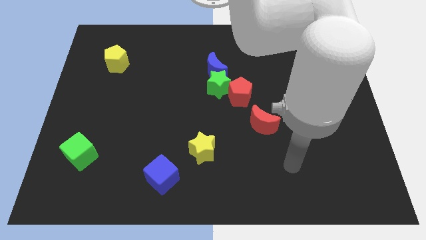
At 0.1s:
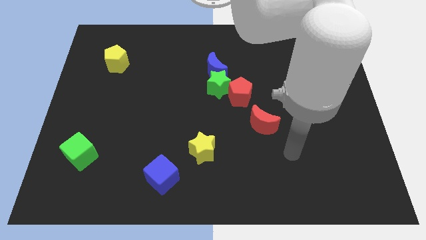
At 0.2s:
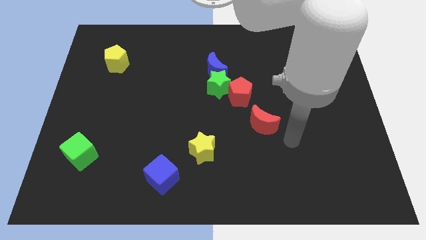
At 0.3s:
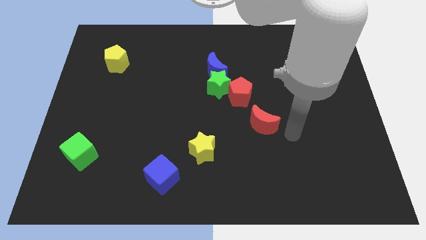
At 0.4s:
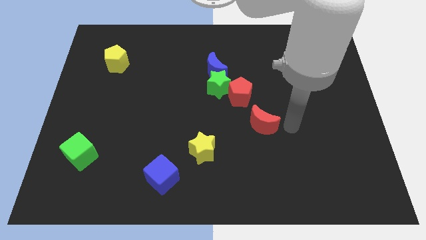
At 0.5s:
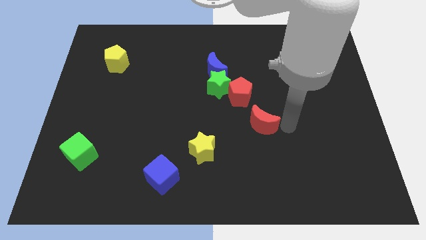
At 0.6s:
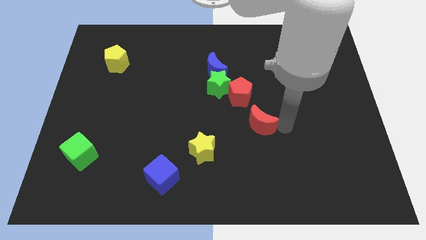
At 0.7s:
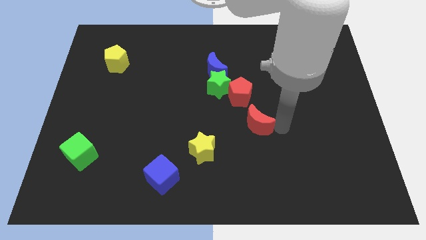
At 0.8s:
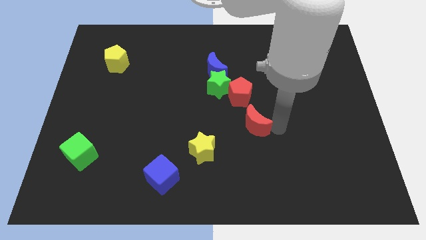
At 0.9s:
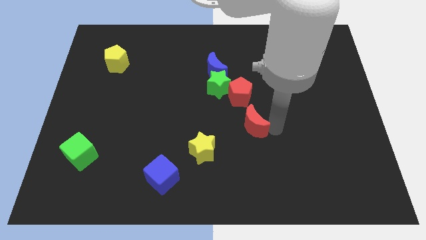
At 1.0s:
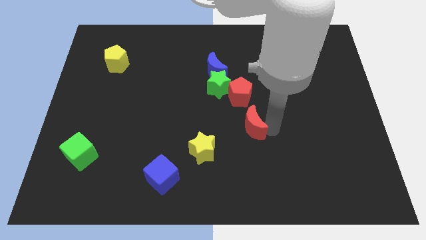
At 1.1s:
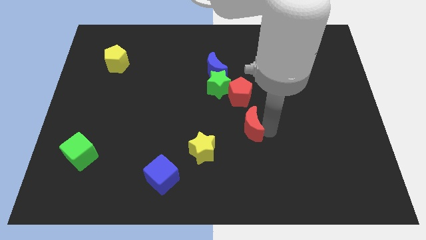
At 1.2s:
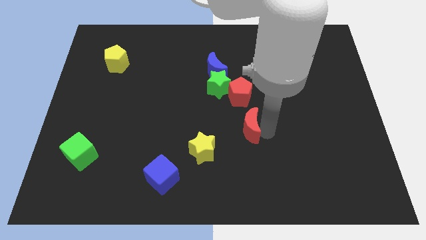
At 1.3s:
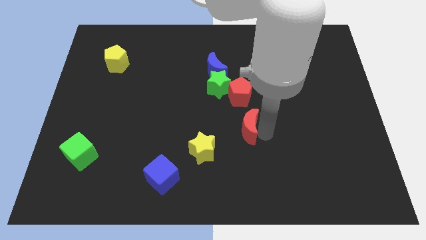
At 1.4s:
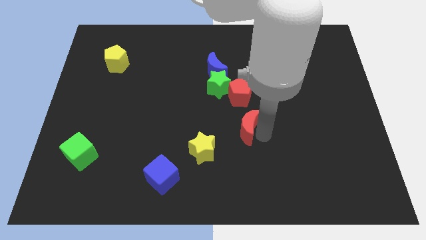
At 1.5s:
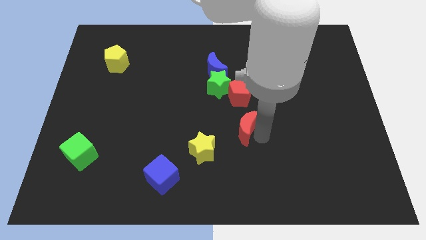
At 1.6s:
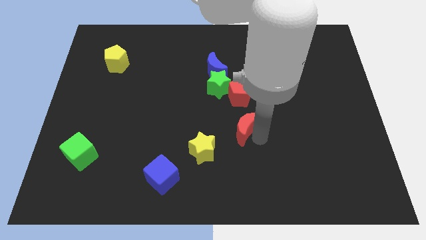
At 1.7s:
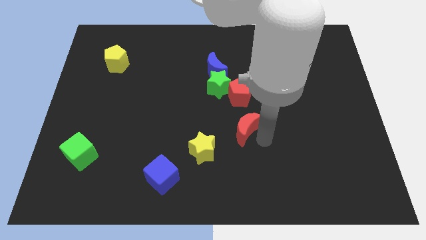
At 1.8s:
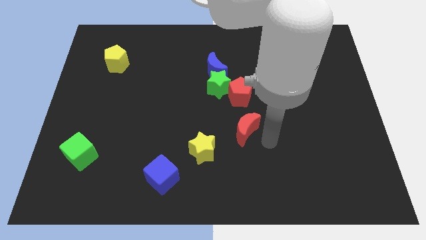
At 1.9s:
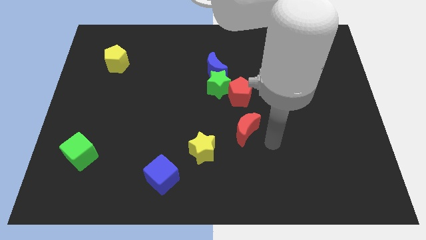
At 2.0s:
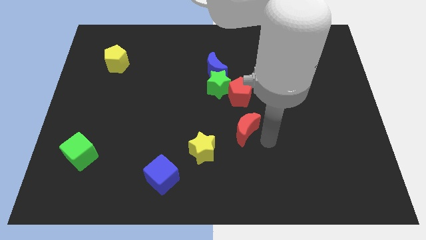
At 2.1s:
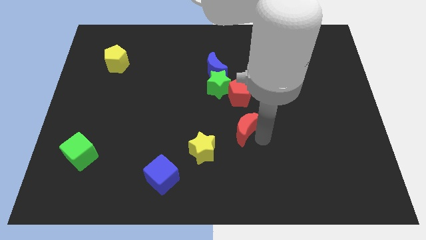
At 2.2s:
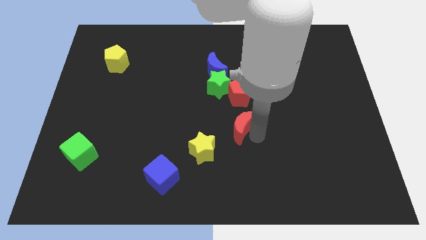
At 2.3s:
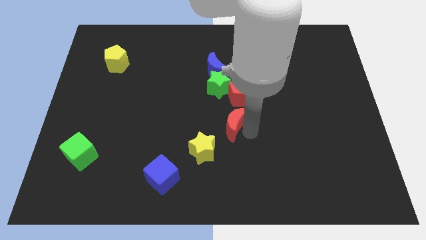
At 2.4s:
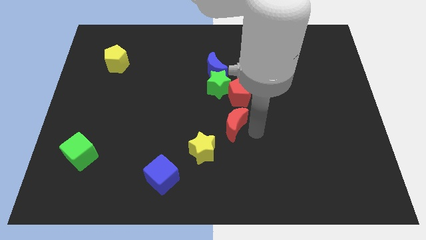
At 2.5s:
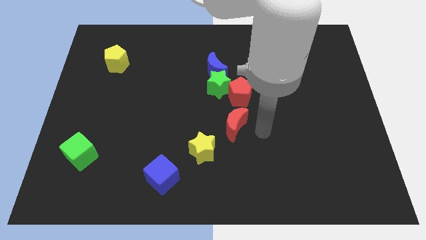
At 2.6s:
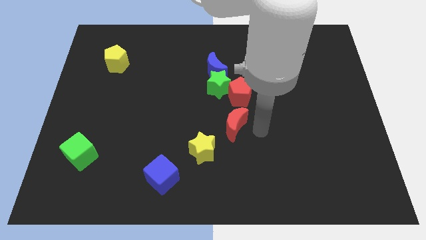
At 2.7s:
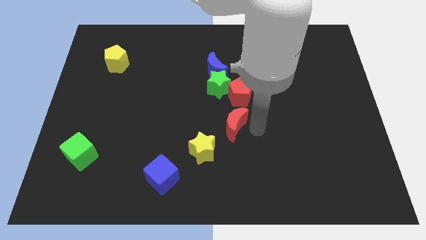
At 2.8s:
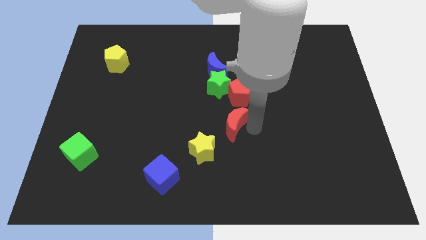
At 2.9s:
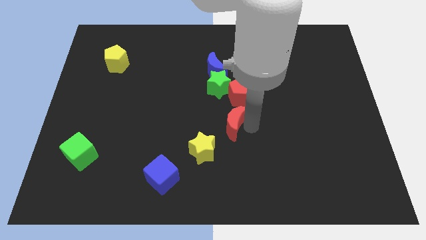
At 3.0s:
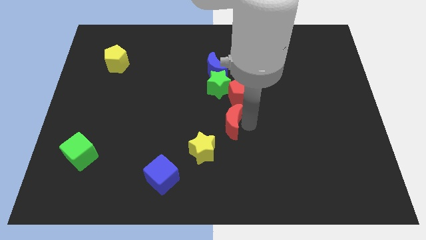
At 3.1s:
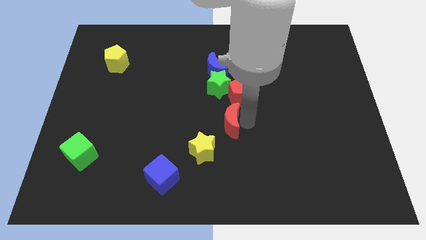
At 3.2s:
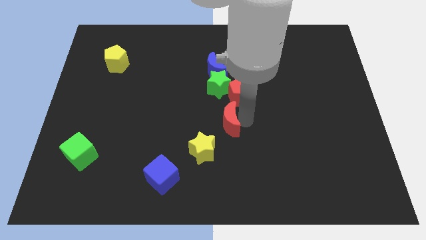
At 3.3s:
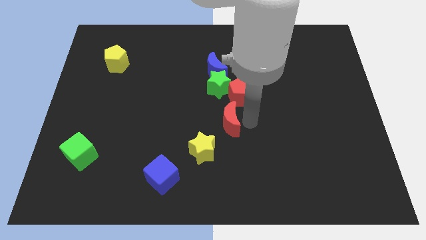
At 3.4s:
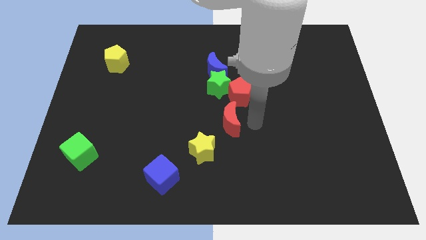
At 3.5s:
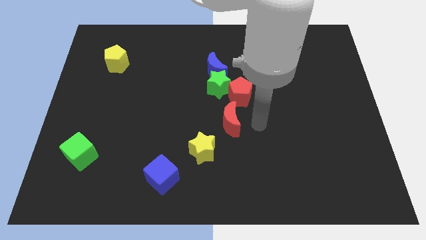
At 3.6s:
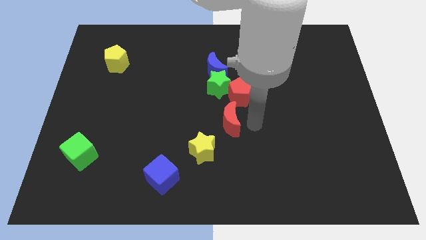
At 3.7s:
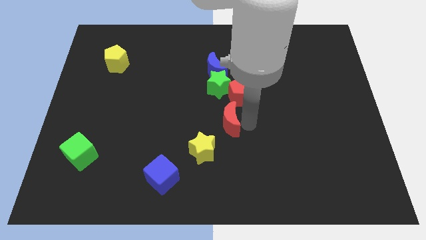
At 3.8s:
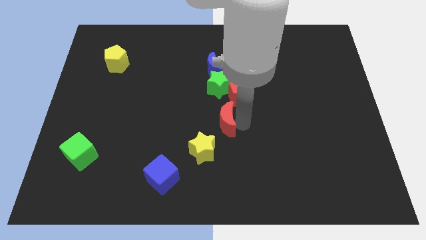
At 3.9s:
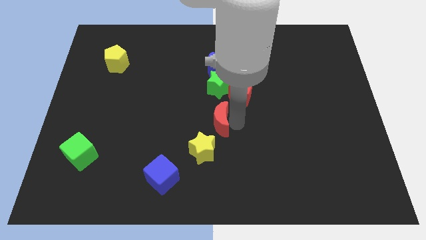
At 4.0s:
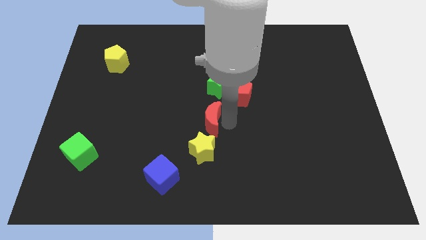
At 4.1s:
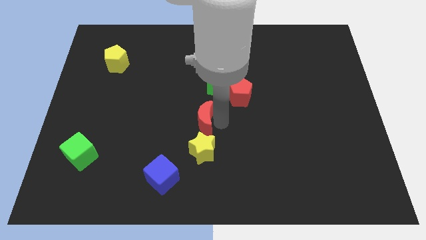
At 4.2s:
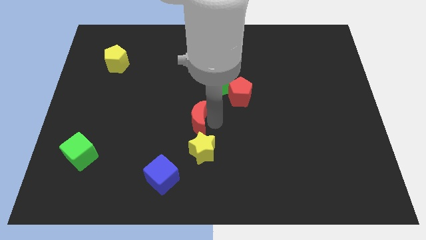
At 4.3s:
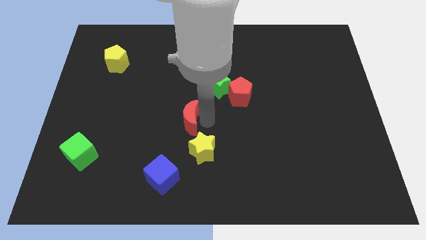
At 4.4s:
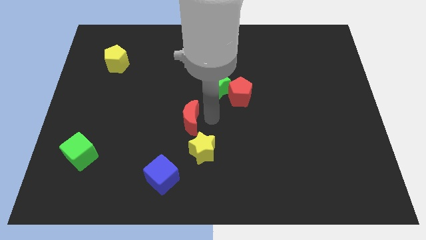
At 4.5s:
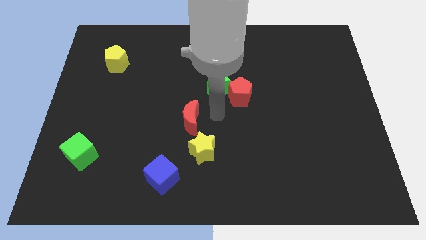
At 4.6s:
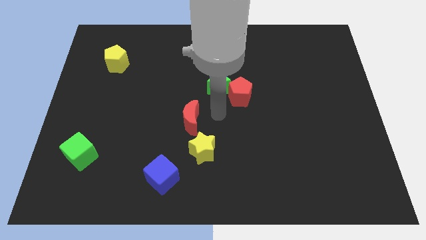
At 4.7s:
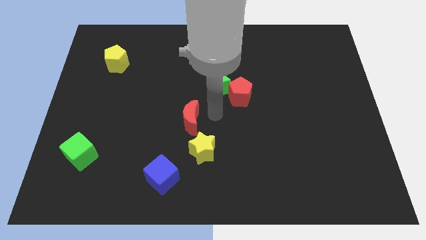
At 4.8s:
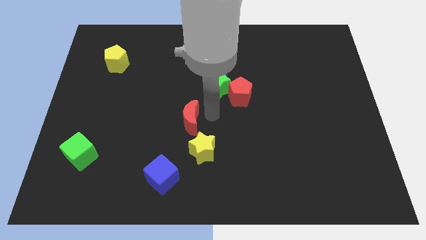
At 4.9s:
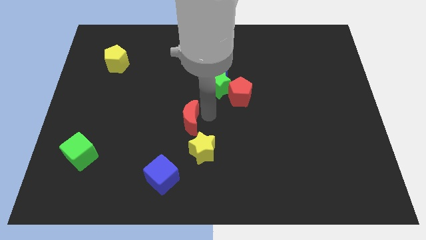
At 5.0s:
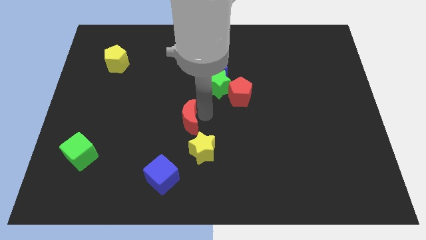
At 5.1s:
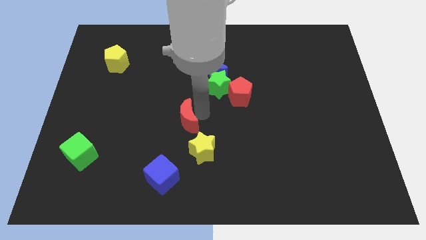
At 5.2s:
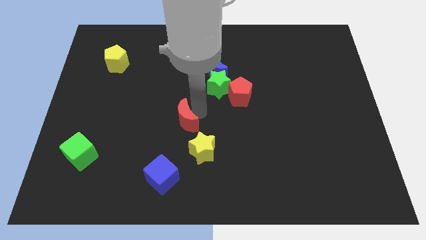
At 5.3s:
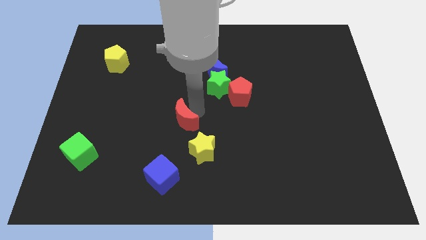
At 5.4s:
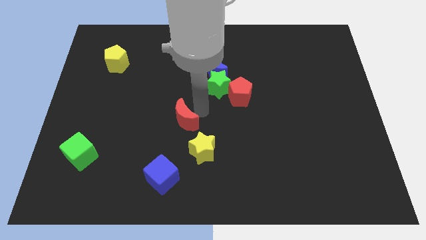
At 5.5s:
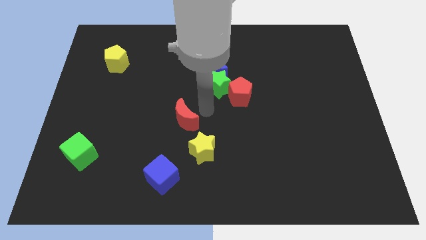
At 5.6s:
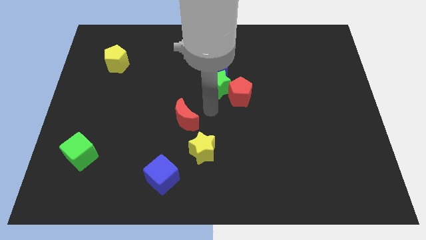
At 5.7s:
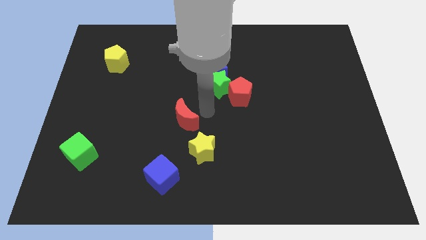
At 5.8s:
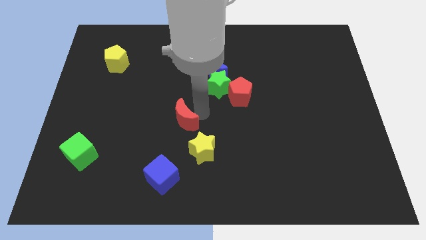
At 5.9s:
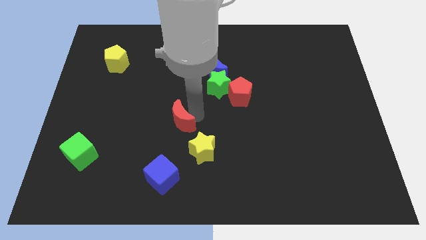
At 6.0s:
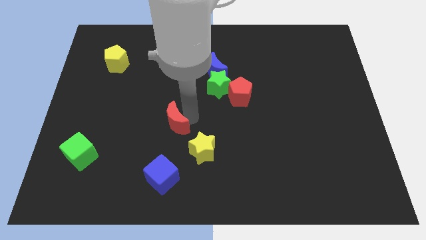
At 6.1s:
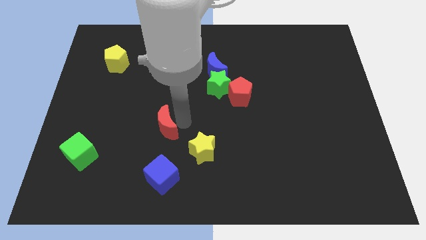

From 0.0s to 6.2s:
push the red moon left

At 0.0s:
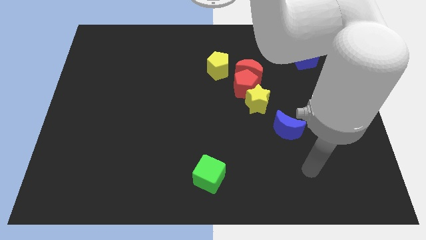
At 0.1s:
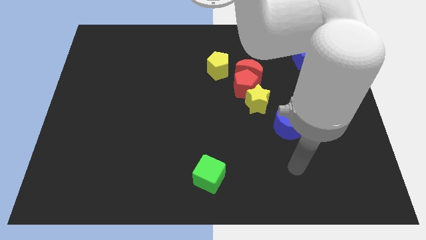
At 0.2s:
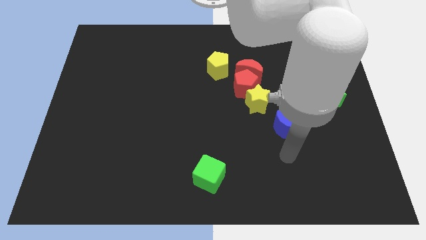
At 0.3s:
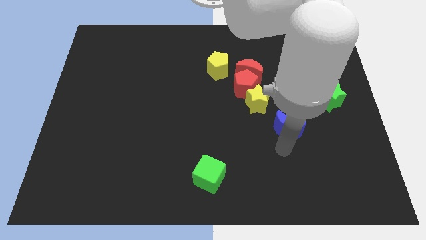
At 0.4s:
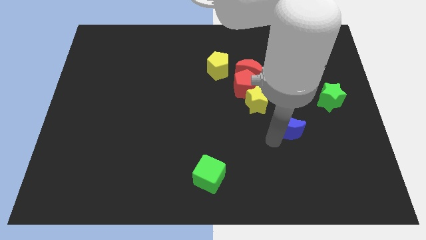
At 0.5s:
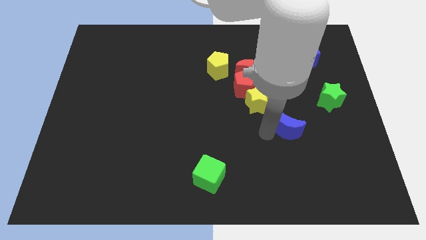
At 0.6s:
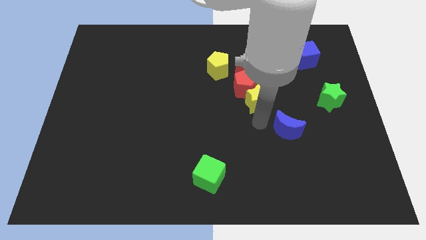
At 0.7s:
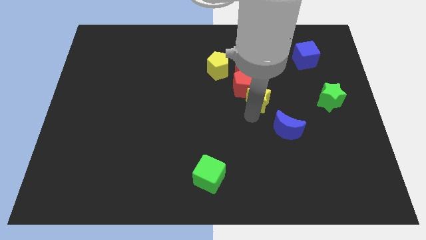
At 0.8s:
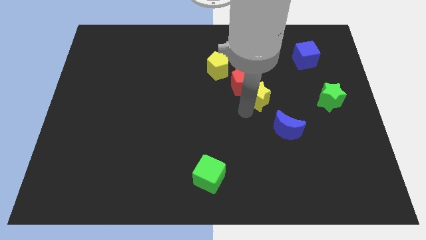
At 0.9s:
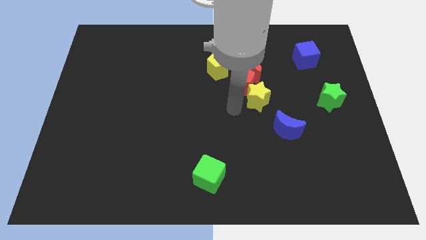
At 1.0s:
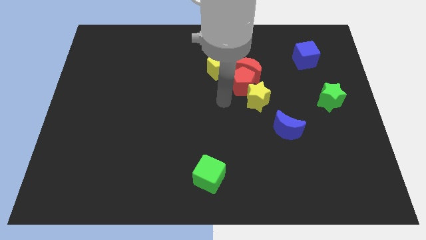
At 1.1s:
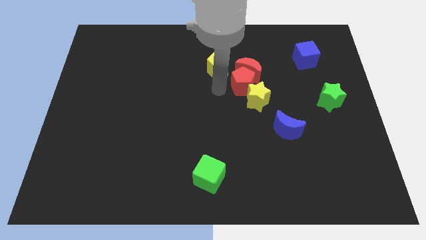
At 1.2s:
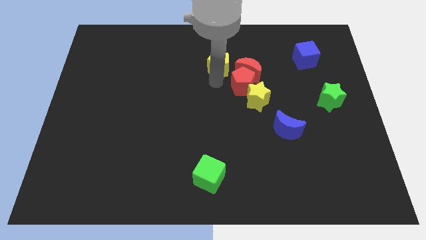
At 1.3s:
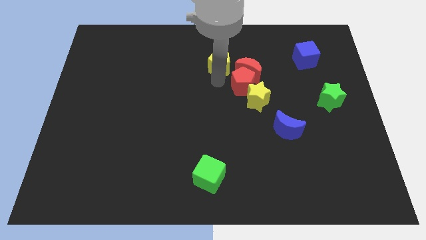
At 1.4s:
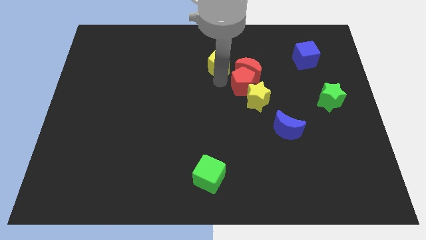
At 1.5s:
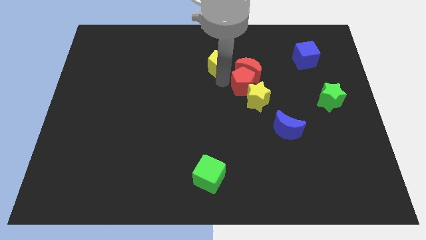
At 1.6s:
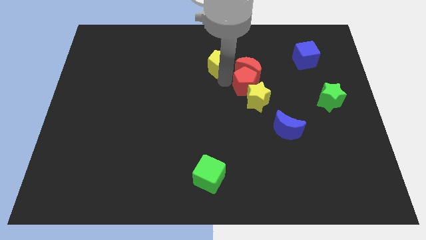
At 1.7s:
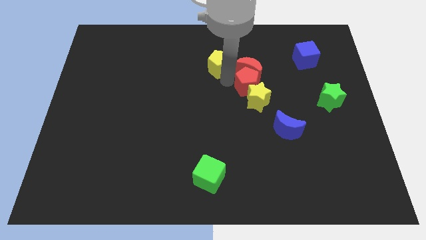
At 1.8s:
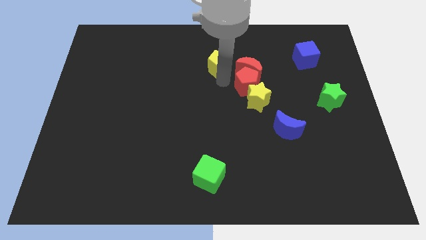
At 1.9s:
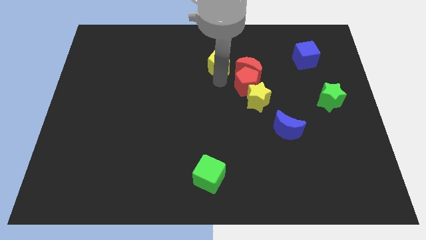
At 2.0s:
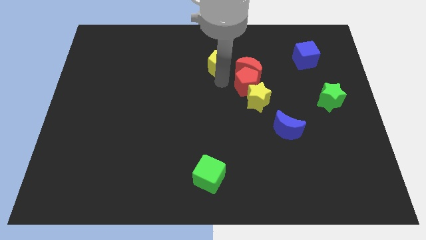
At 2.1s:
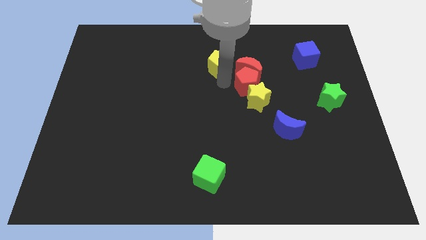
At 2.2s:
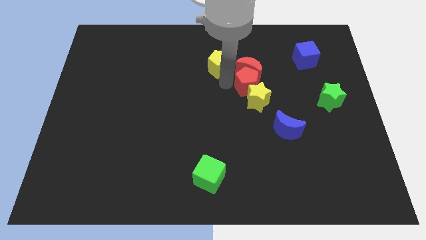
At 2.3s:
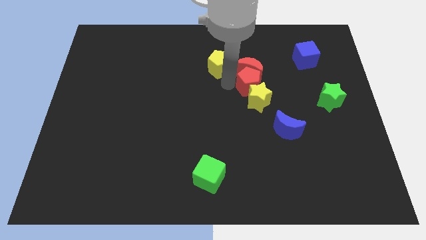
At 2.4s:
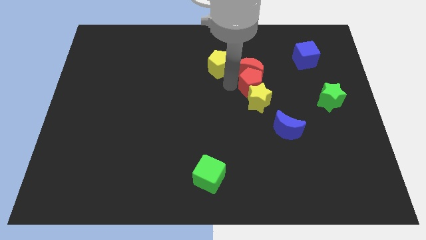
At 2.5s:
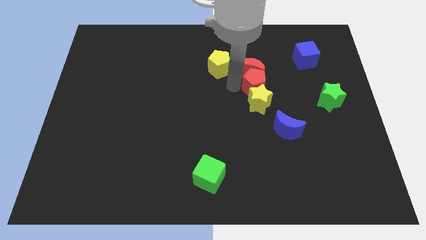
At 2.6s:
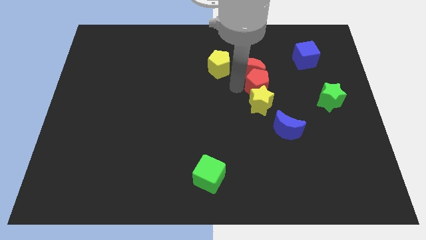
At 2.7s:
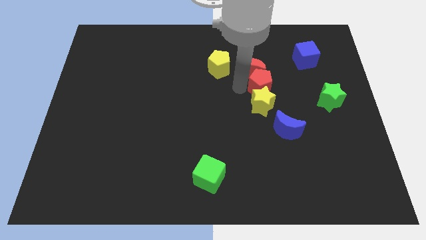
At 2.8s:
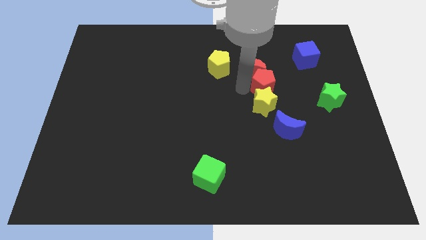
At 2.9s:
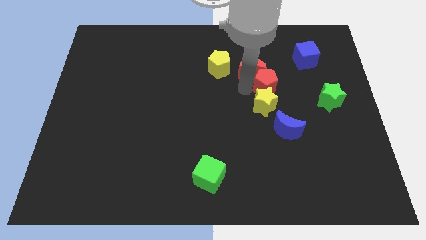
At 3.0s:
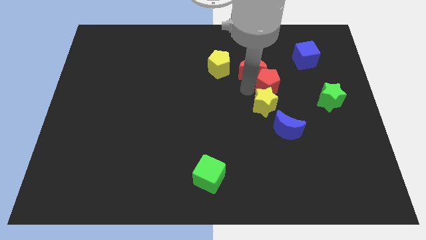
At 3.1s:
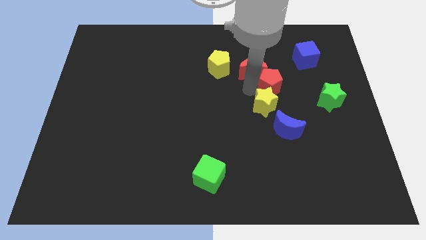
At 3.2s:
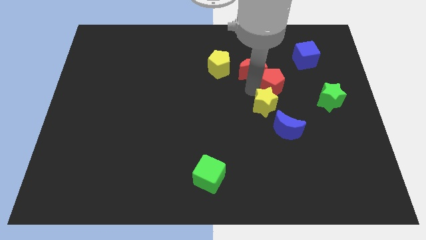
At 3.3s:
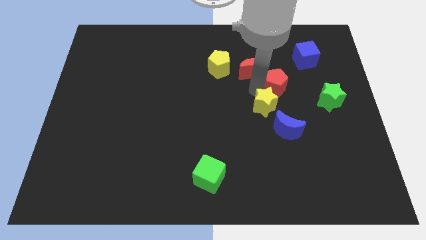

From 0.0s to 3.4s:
push the red pentagon a little right
